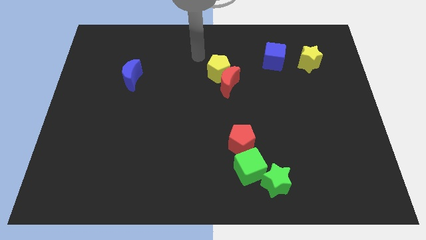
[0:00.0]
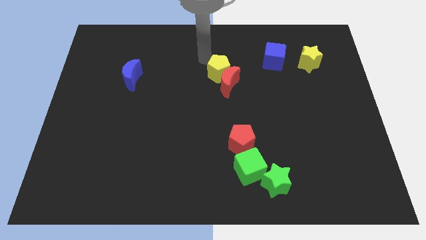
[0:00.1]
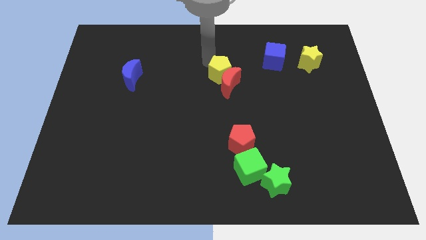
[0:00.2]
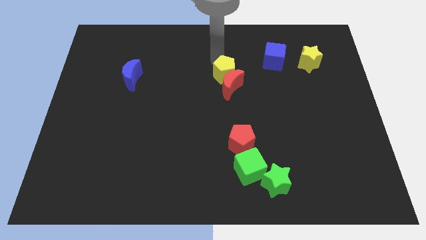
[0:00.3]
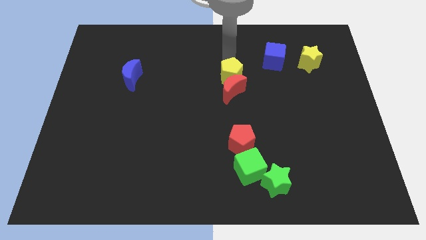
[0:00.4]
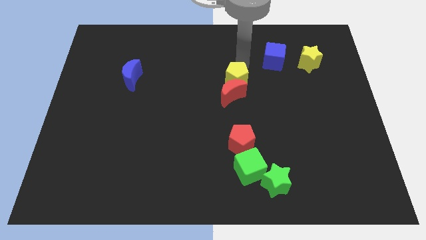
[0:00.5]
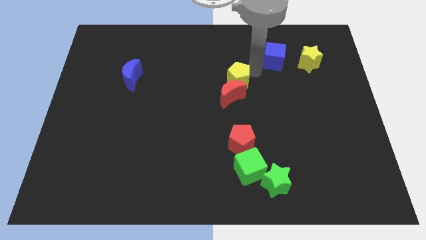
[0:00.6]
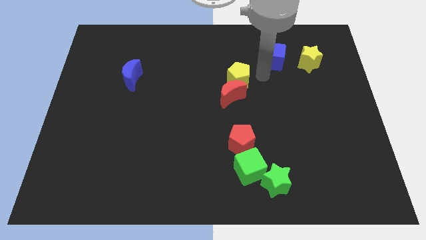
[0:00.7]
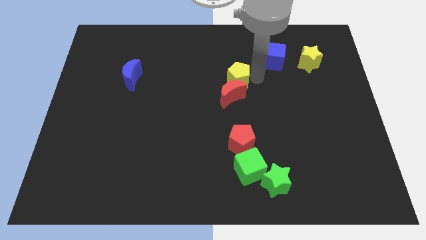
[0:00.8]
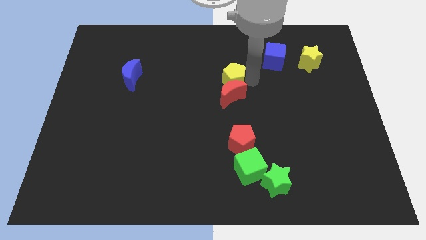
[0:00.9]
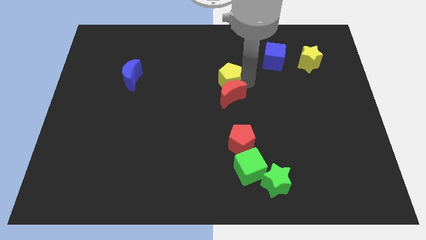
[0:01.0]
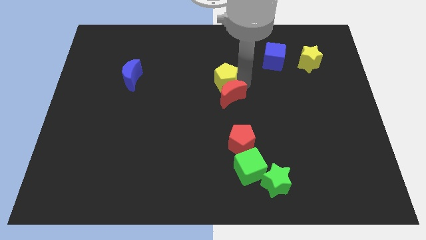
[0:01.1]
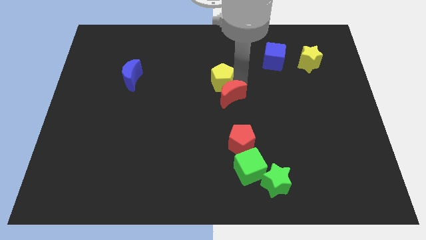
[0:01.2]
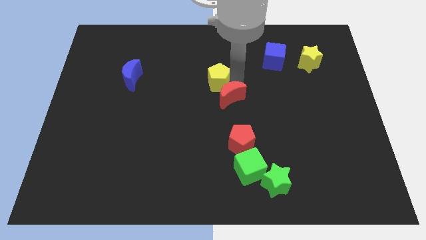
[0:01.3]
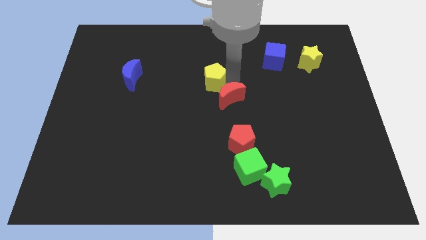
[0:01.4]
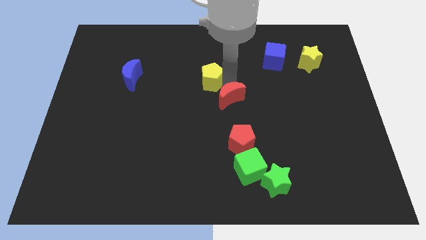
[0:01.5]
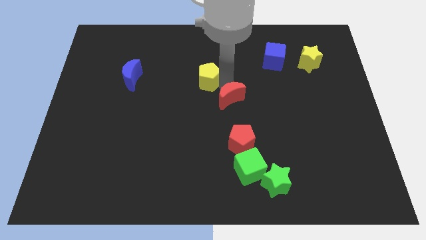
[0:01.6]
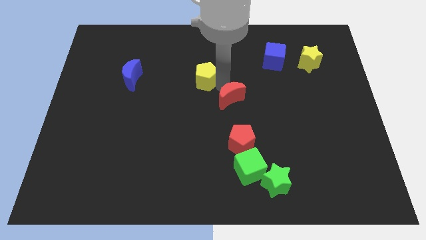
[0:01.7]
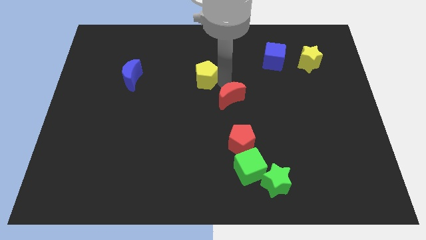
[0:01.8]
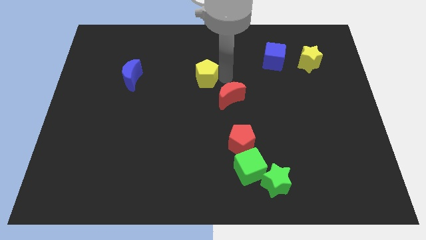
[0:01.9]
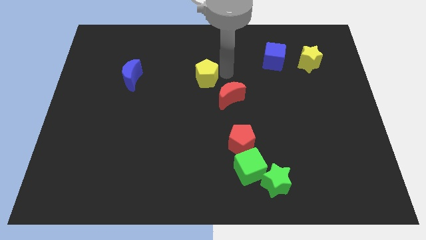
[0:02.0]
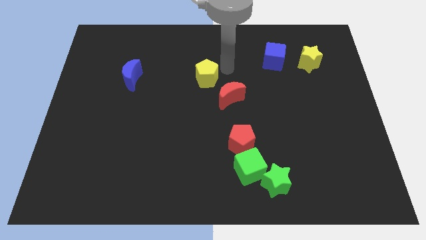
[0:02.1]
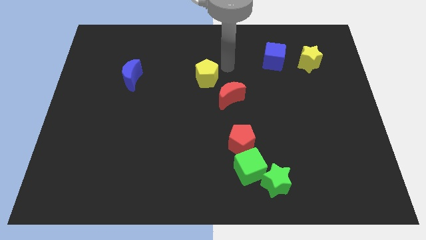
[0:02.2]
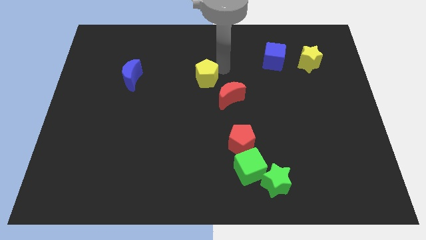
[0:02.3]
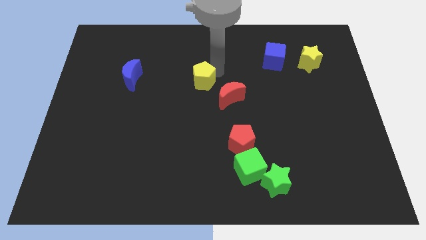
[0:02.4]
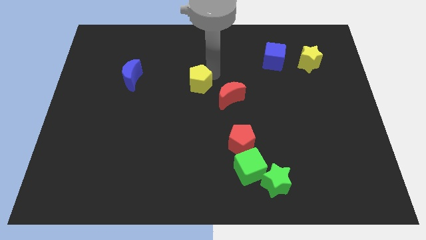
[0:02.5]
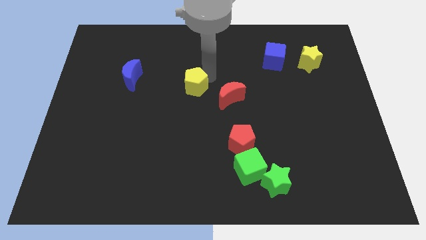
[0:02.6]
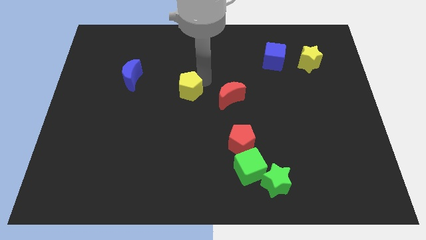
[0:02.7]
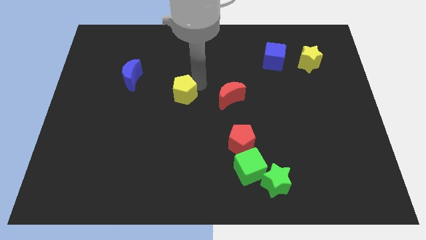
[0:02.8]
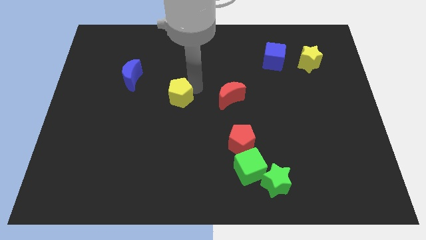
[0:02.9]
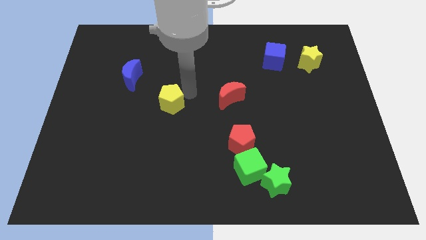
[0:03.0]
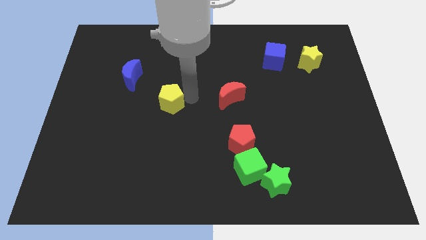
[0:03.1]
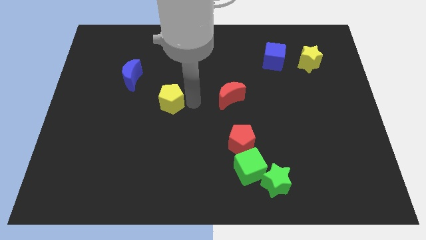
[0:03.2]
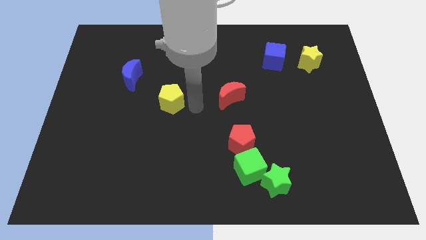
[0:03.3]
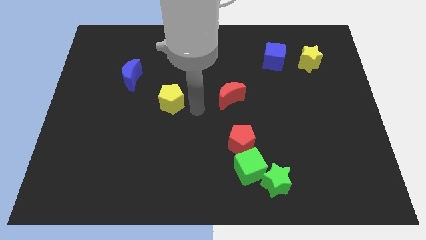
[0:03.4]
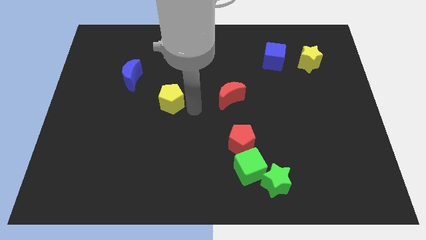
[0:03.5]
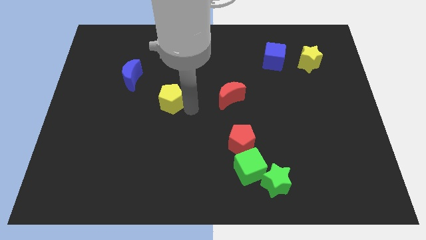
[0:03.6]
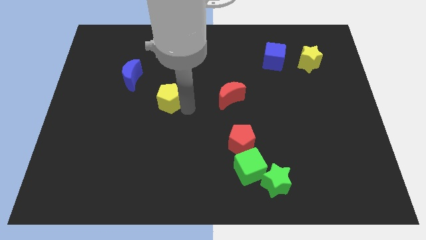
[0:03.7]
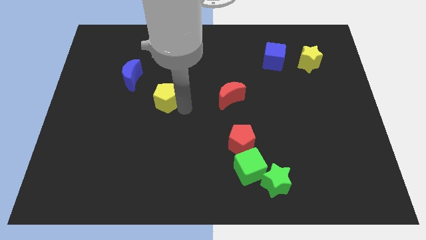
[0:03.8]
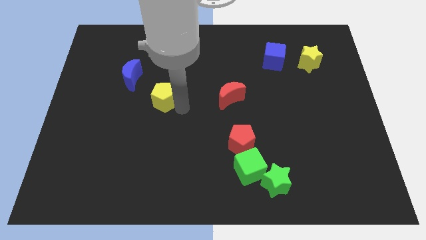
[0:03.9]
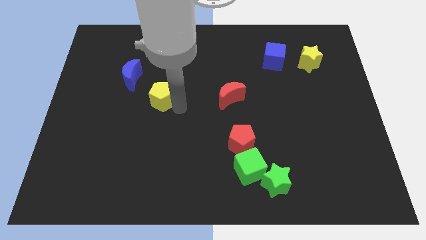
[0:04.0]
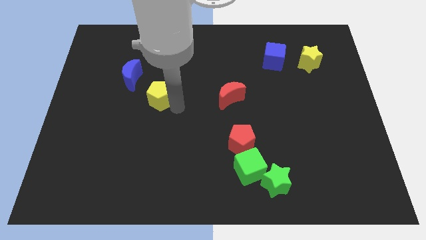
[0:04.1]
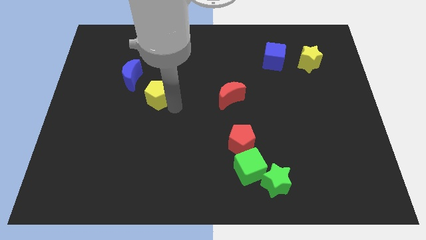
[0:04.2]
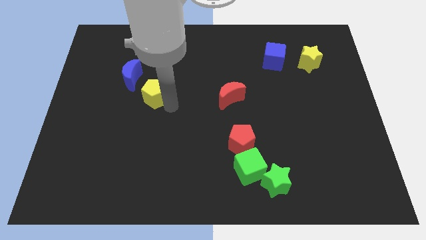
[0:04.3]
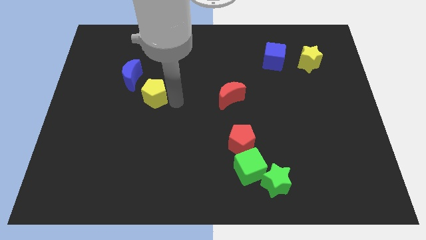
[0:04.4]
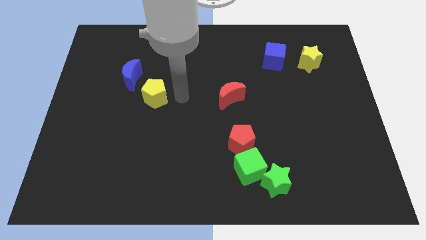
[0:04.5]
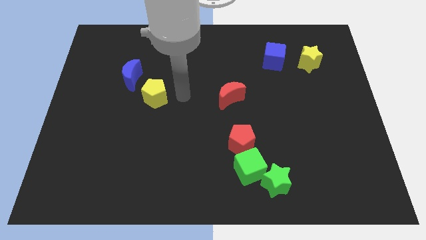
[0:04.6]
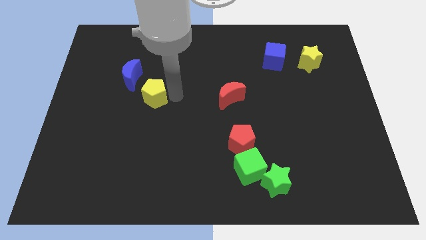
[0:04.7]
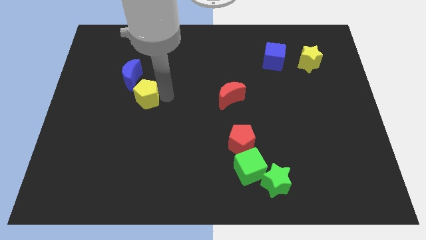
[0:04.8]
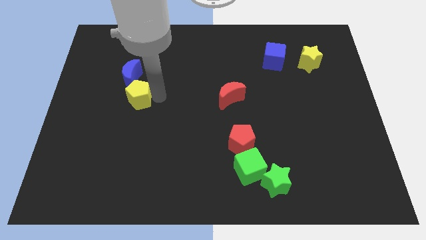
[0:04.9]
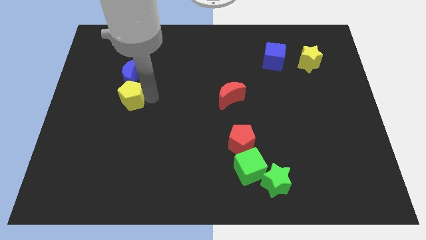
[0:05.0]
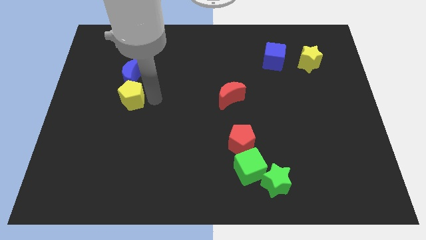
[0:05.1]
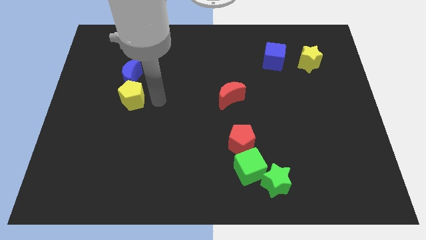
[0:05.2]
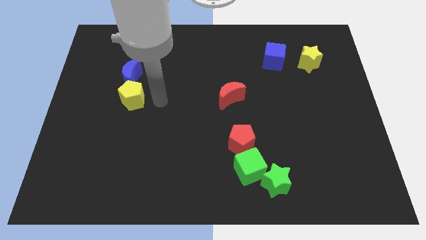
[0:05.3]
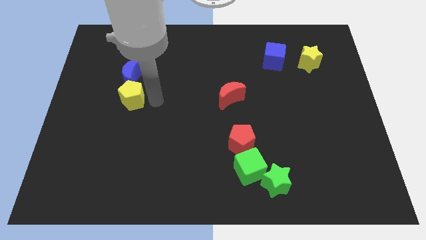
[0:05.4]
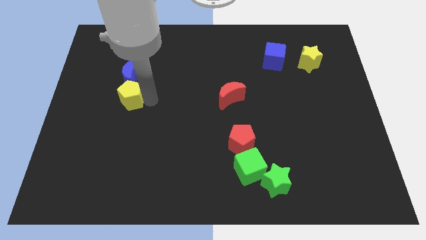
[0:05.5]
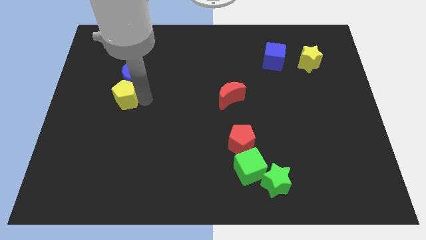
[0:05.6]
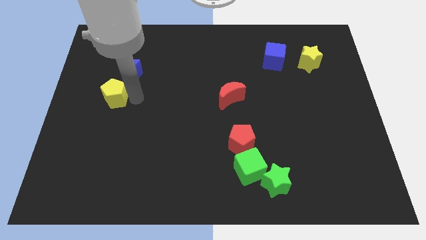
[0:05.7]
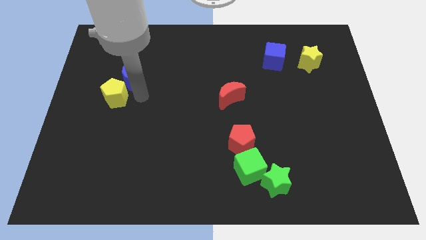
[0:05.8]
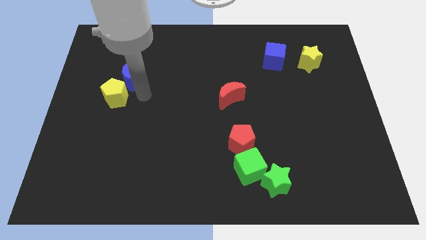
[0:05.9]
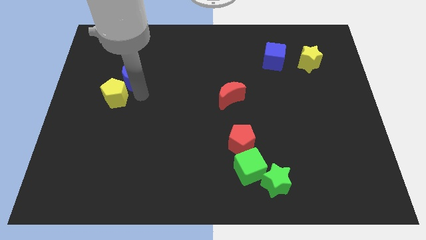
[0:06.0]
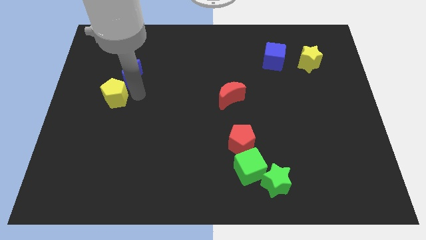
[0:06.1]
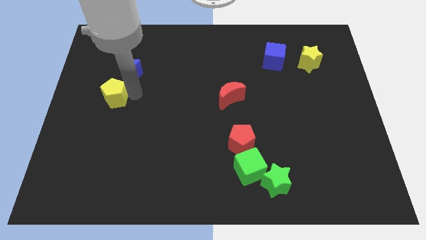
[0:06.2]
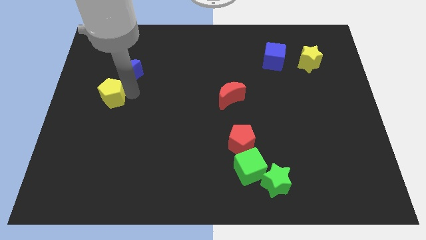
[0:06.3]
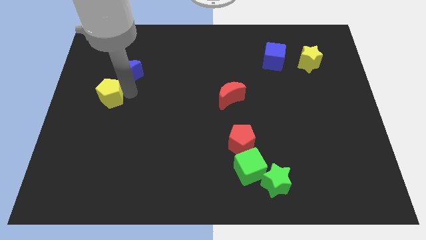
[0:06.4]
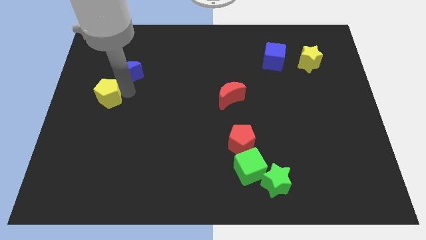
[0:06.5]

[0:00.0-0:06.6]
slide the yellow pentagon to the left side of the board
